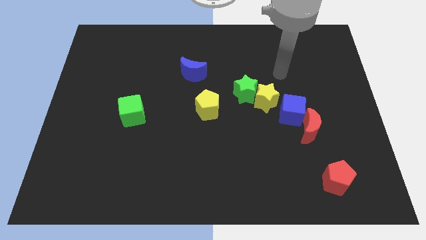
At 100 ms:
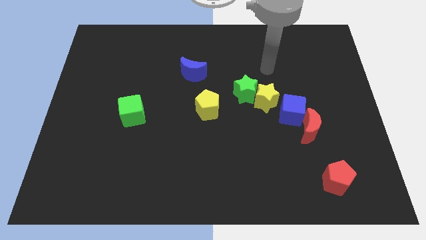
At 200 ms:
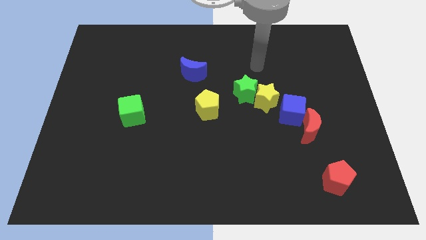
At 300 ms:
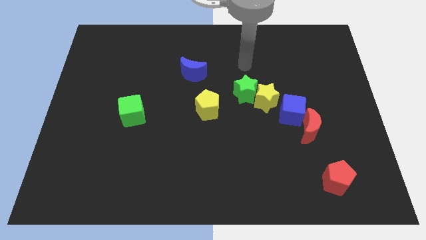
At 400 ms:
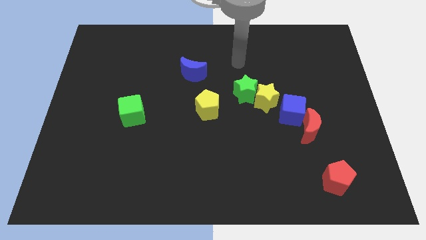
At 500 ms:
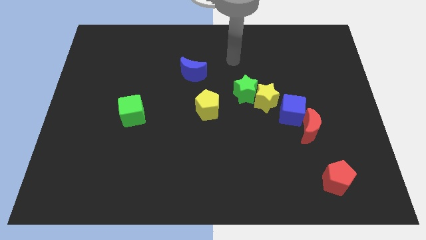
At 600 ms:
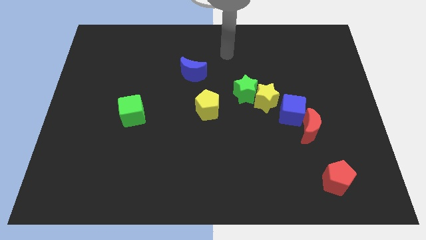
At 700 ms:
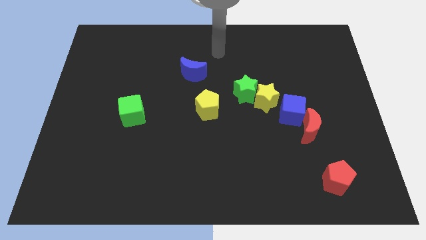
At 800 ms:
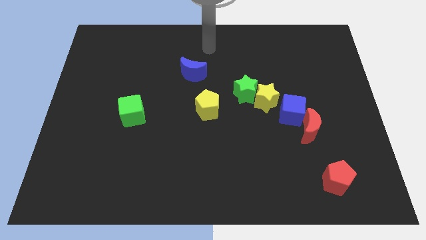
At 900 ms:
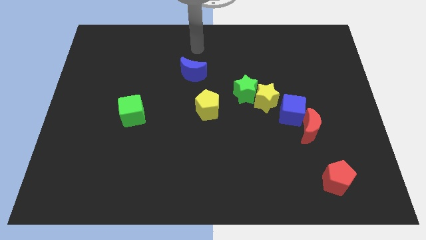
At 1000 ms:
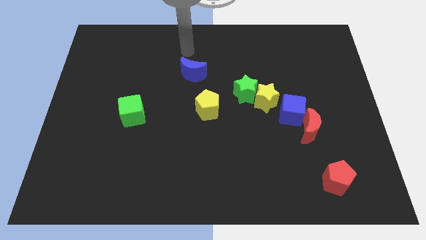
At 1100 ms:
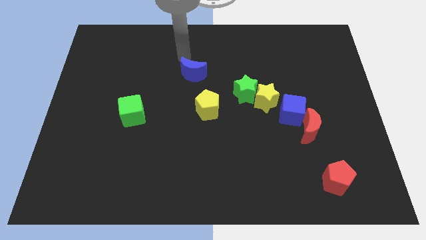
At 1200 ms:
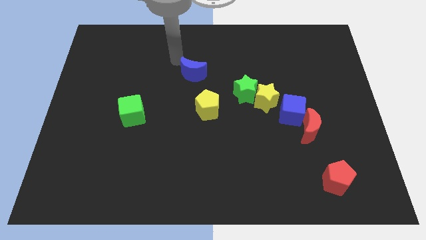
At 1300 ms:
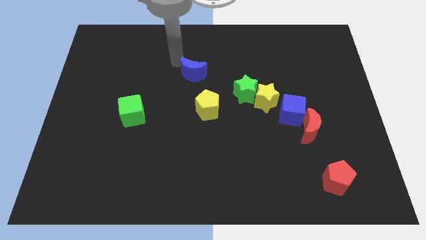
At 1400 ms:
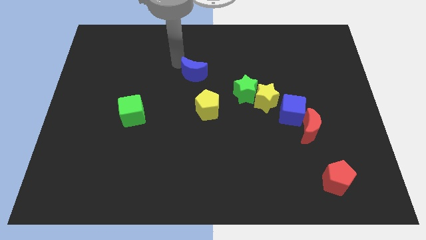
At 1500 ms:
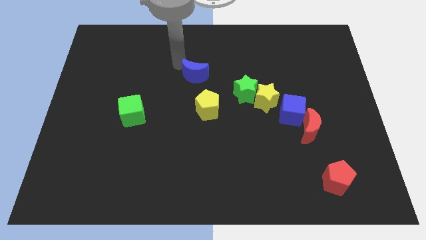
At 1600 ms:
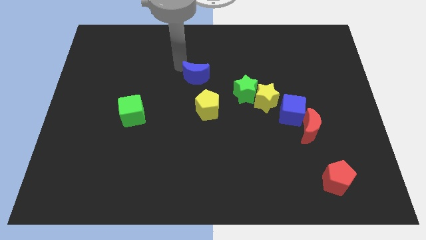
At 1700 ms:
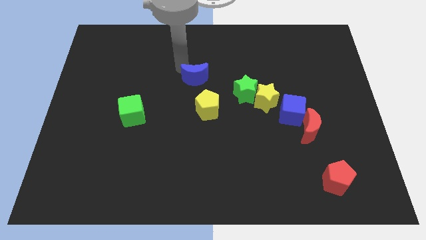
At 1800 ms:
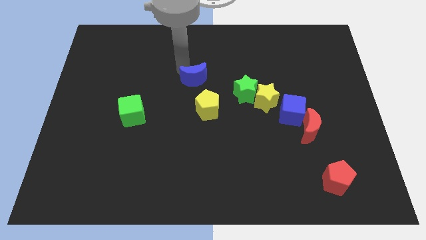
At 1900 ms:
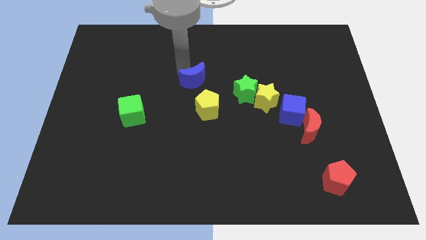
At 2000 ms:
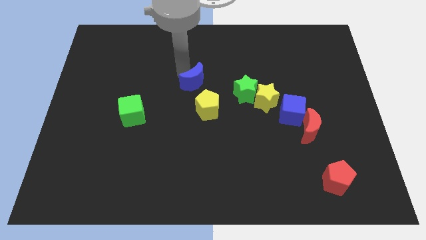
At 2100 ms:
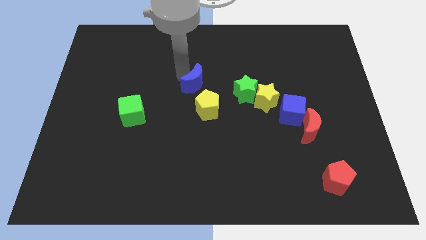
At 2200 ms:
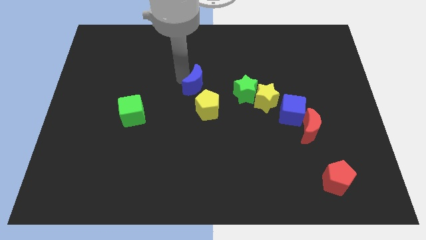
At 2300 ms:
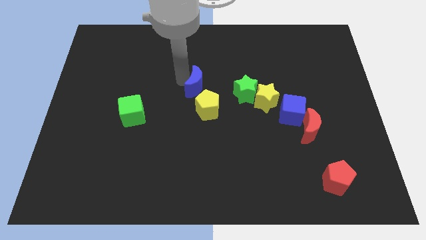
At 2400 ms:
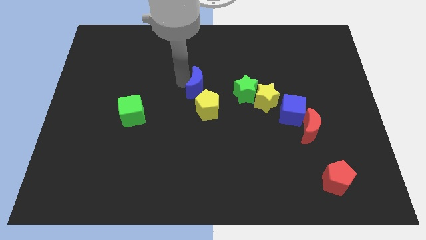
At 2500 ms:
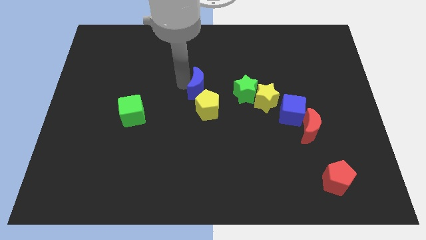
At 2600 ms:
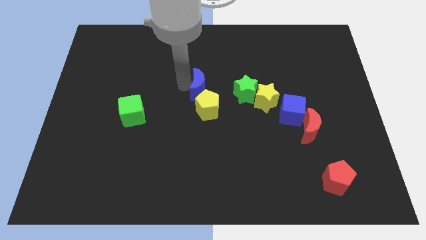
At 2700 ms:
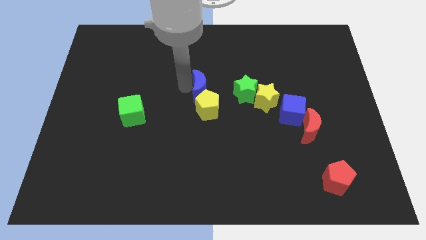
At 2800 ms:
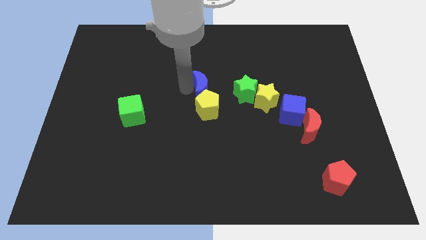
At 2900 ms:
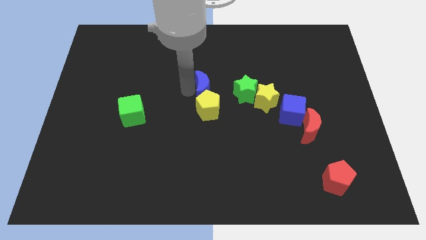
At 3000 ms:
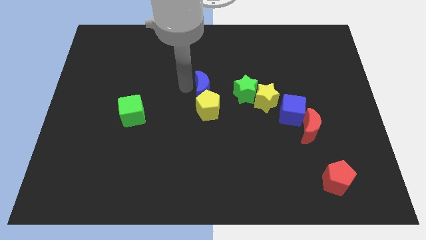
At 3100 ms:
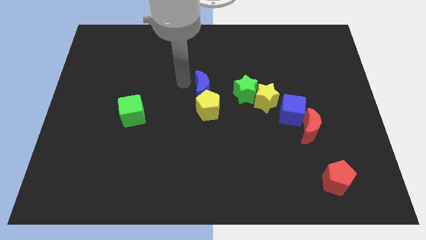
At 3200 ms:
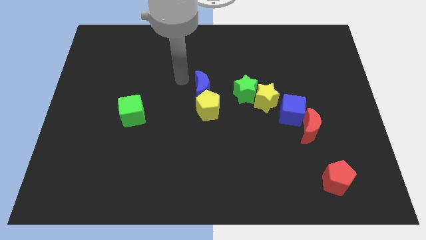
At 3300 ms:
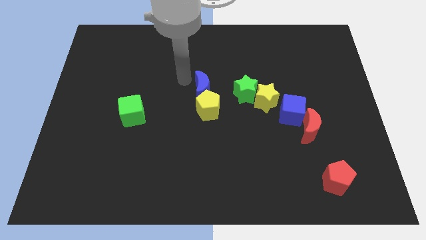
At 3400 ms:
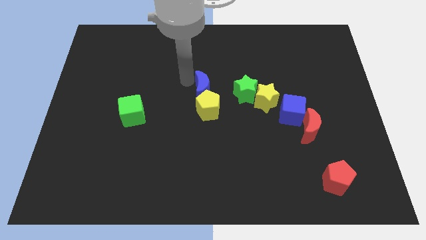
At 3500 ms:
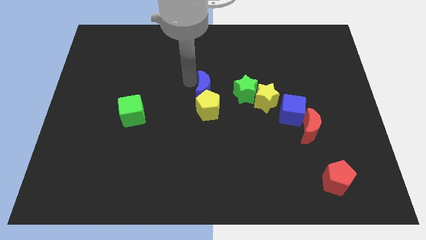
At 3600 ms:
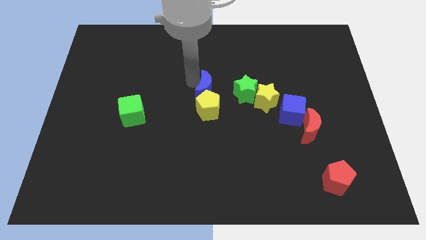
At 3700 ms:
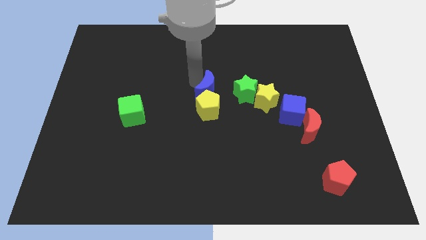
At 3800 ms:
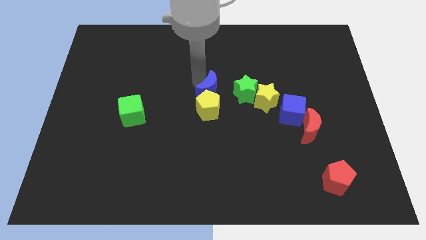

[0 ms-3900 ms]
move the blue moon somewhat downwards and then right

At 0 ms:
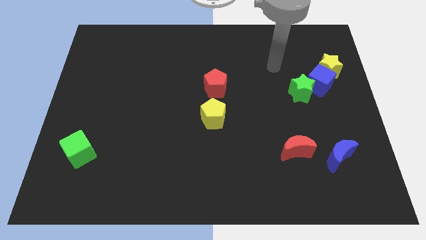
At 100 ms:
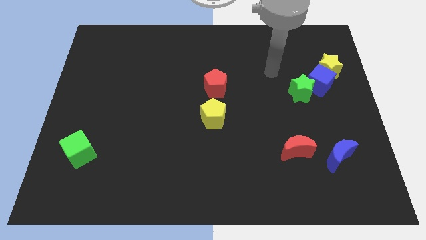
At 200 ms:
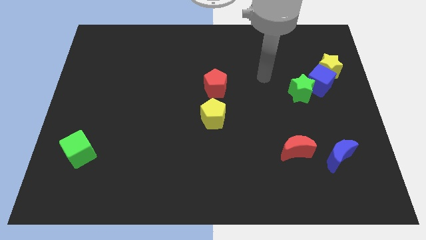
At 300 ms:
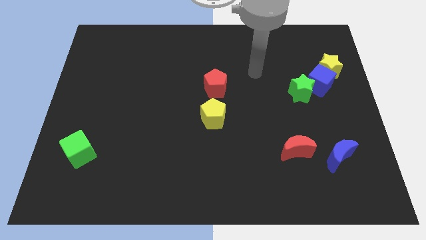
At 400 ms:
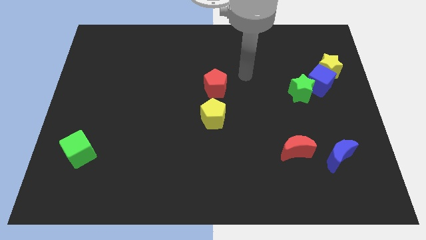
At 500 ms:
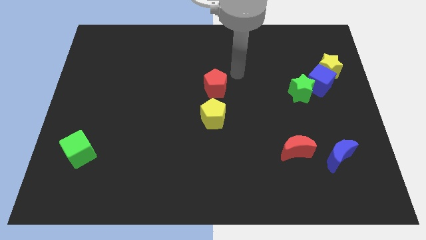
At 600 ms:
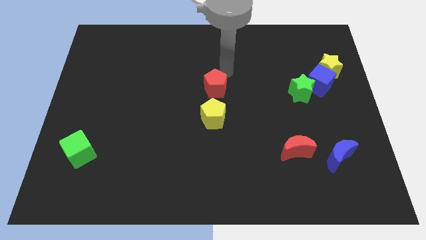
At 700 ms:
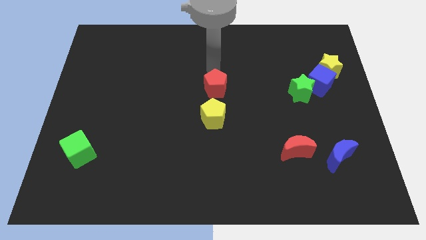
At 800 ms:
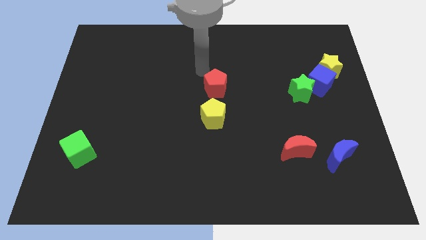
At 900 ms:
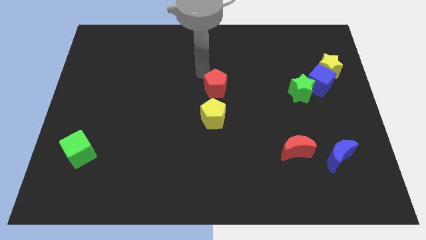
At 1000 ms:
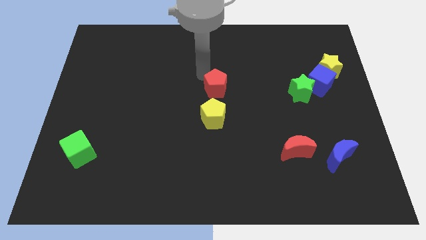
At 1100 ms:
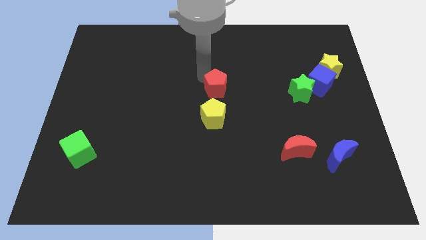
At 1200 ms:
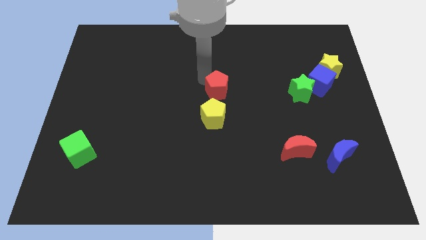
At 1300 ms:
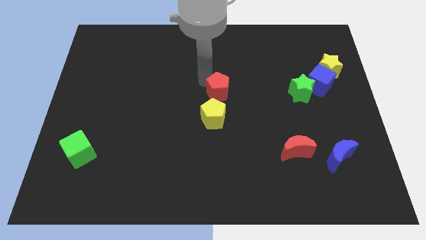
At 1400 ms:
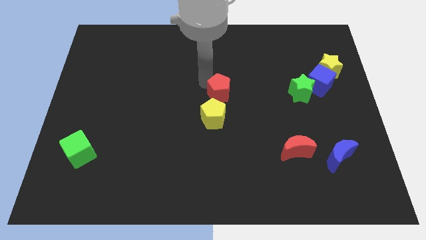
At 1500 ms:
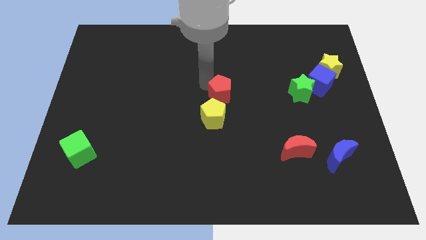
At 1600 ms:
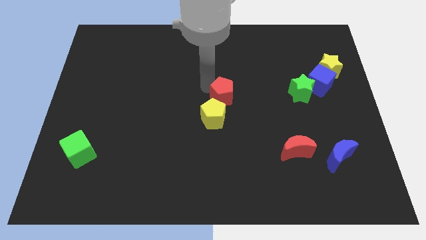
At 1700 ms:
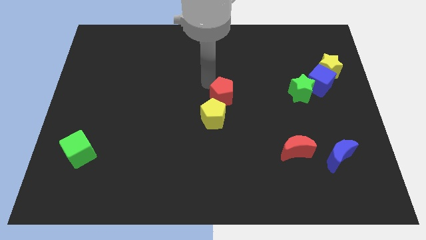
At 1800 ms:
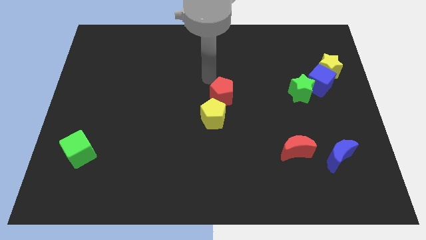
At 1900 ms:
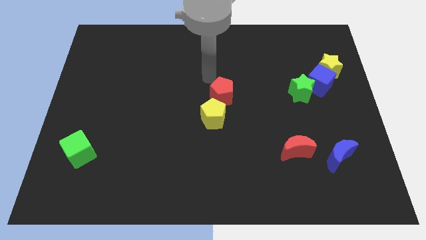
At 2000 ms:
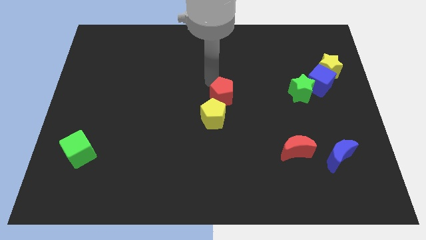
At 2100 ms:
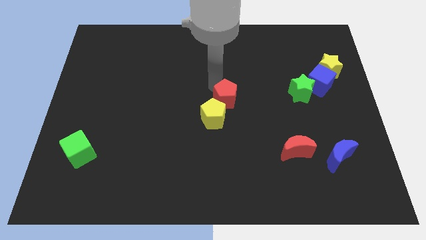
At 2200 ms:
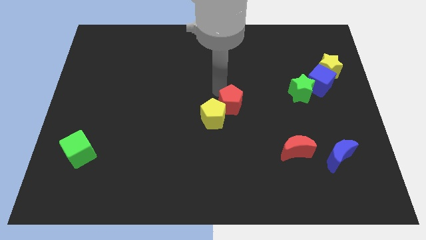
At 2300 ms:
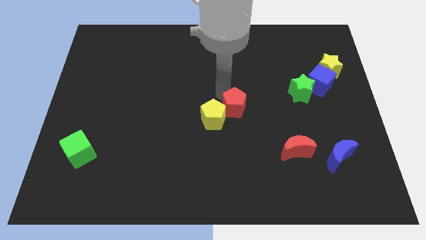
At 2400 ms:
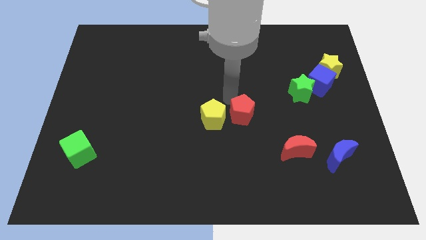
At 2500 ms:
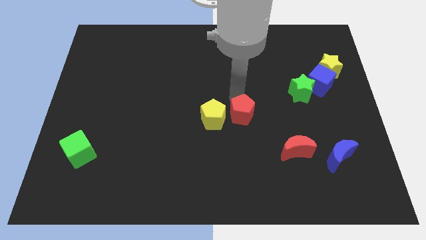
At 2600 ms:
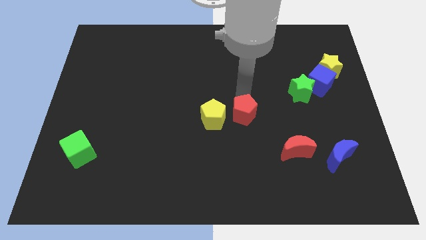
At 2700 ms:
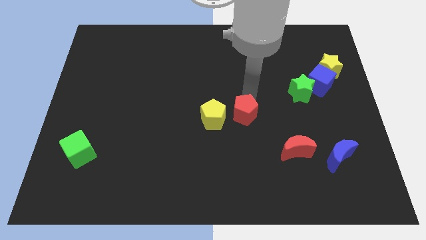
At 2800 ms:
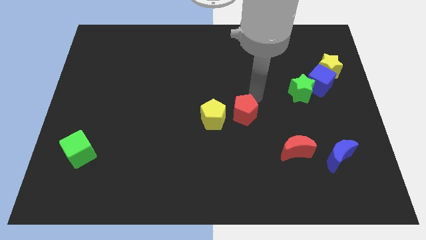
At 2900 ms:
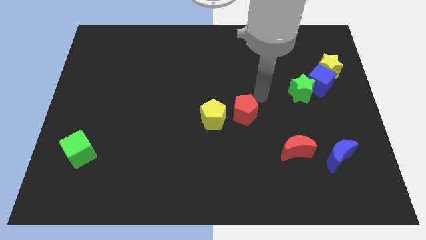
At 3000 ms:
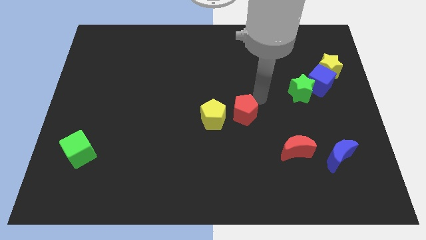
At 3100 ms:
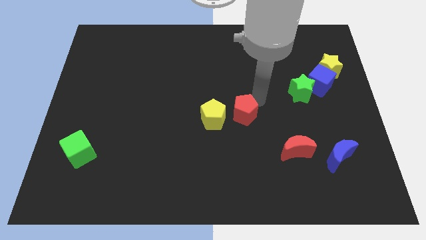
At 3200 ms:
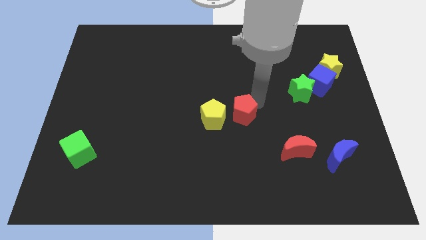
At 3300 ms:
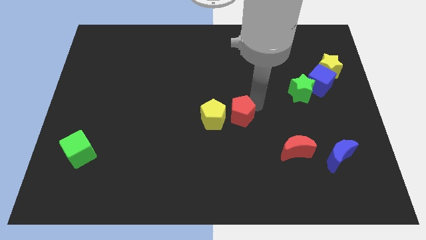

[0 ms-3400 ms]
slightly push the red pentagon down

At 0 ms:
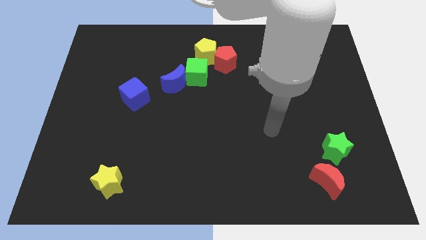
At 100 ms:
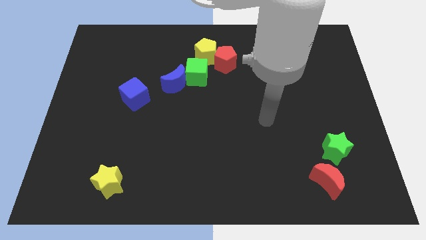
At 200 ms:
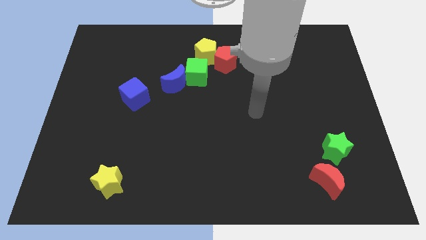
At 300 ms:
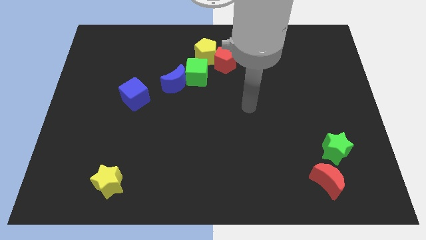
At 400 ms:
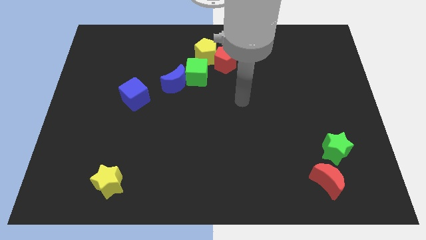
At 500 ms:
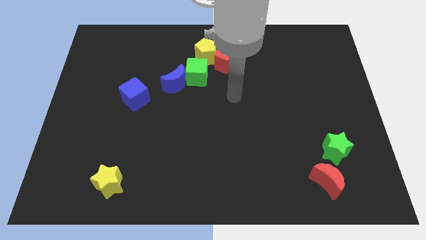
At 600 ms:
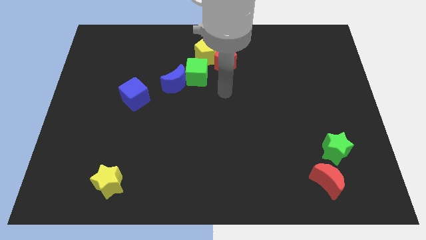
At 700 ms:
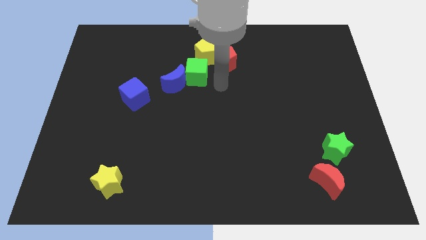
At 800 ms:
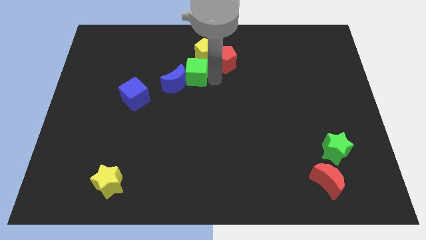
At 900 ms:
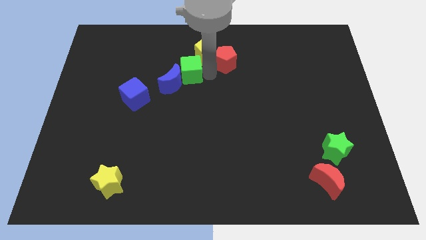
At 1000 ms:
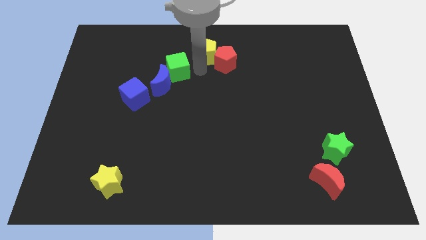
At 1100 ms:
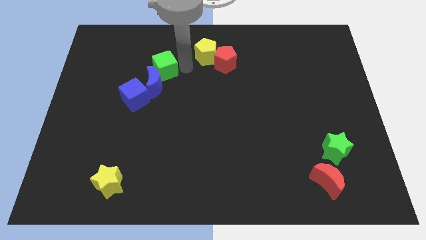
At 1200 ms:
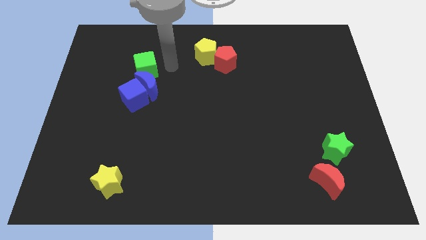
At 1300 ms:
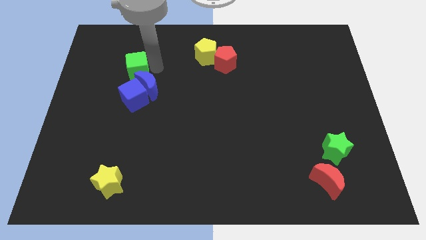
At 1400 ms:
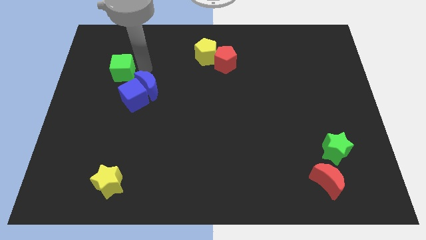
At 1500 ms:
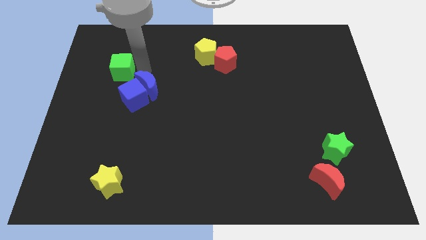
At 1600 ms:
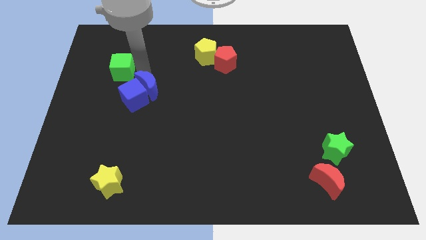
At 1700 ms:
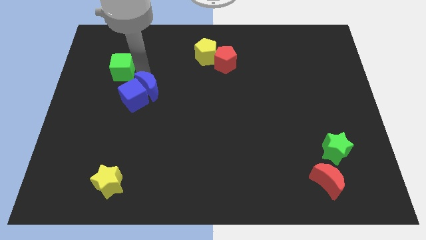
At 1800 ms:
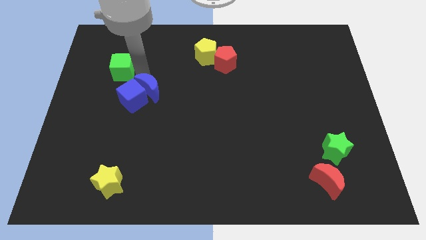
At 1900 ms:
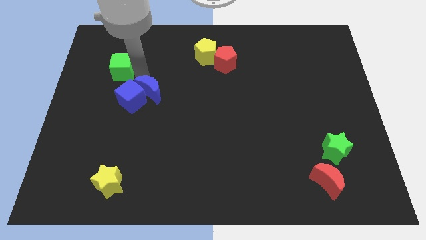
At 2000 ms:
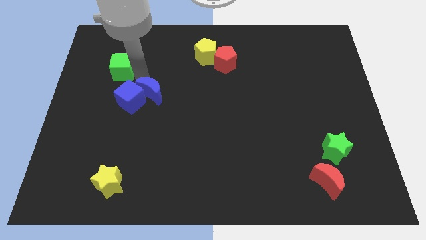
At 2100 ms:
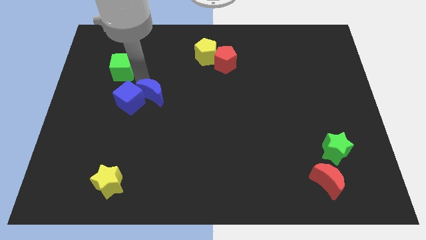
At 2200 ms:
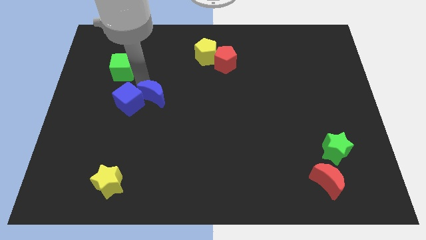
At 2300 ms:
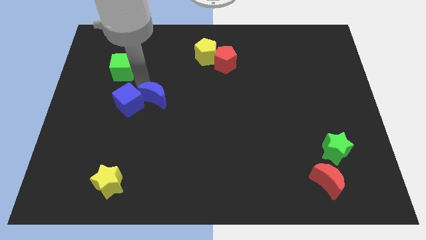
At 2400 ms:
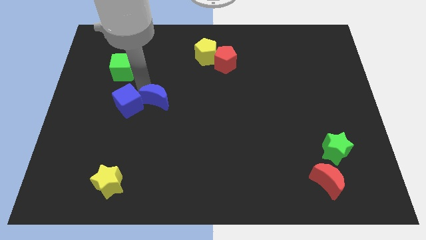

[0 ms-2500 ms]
slide the blue moon down and left diagonally slightly
